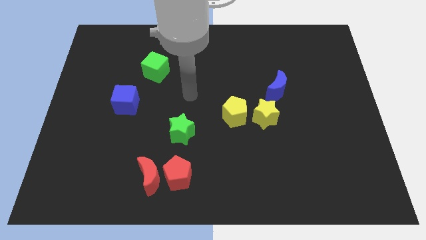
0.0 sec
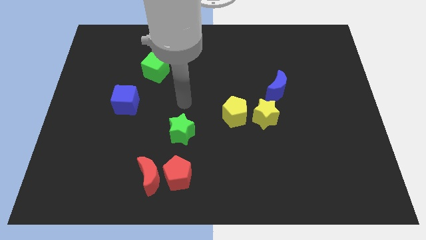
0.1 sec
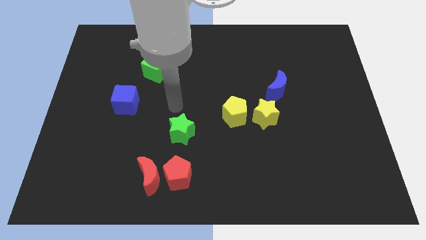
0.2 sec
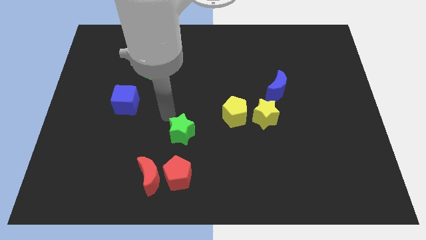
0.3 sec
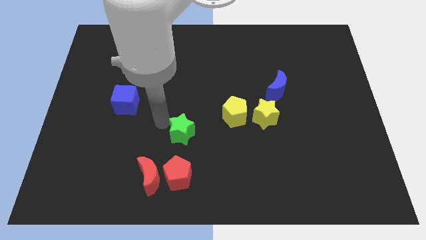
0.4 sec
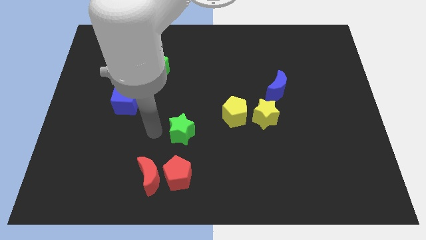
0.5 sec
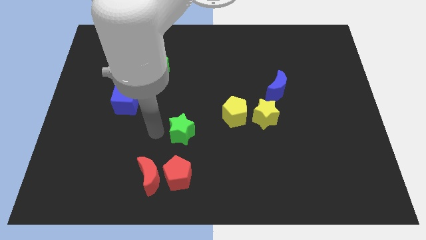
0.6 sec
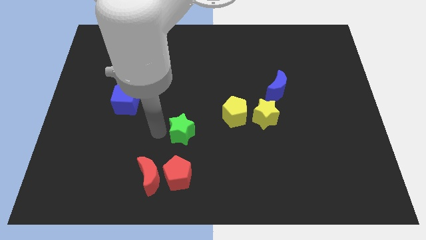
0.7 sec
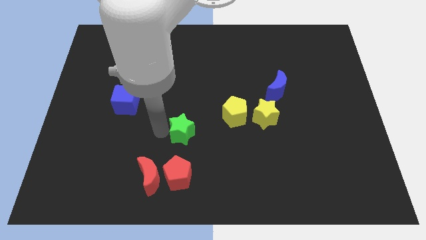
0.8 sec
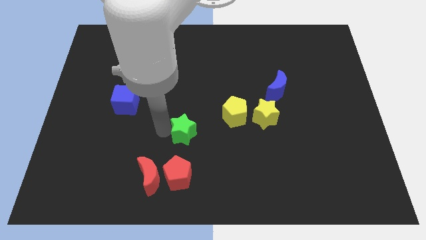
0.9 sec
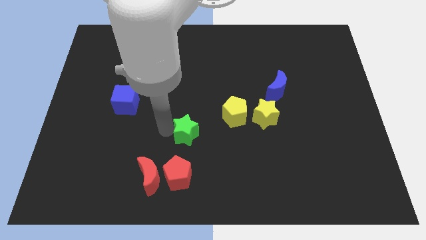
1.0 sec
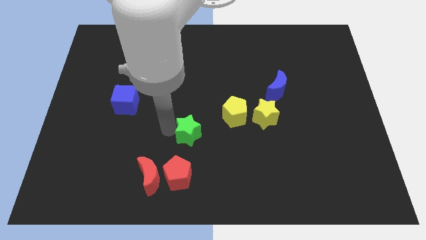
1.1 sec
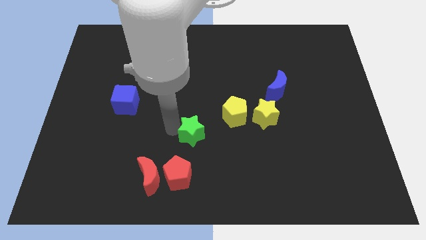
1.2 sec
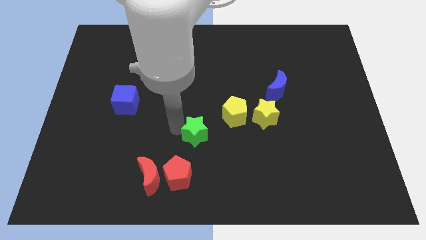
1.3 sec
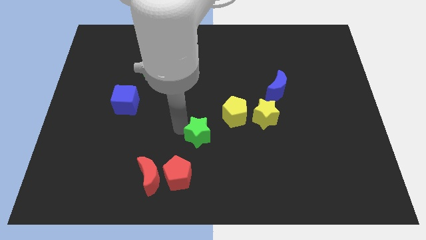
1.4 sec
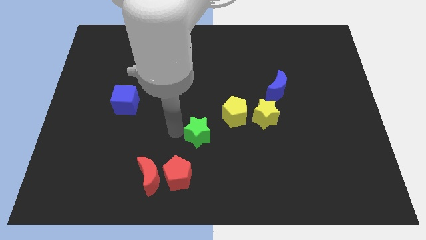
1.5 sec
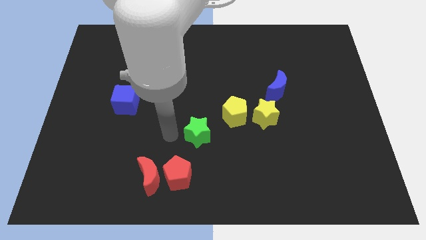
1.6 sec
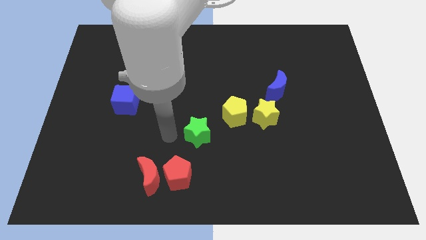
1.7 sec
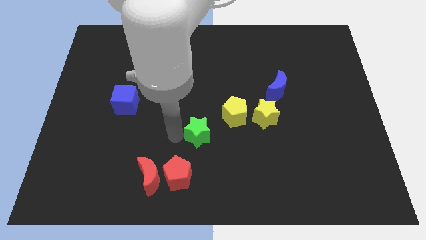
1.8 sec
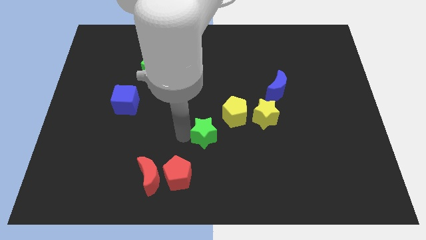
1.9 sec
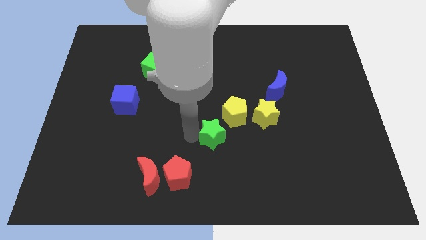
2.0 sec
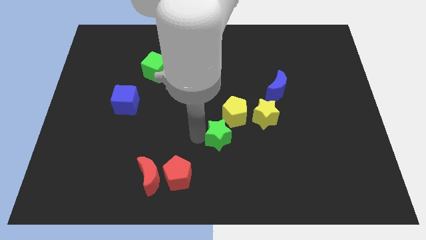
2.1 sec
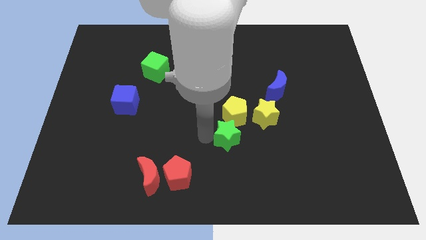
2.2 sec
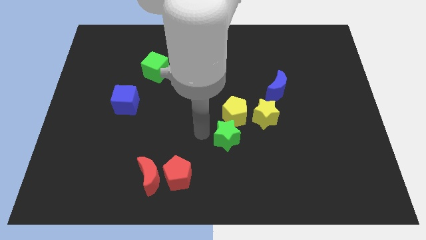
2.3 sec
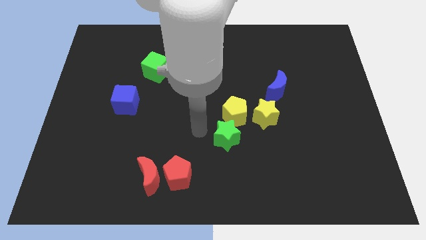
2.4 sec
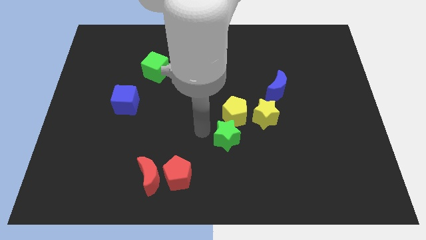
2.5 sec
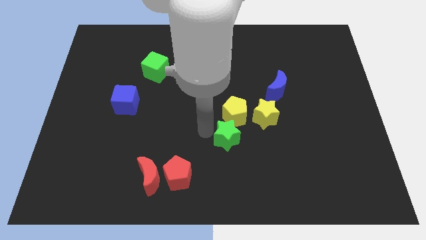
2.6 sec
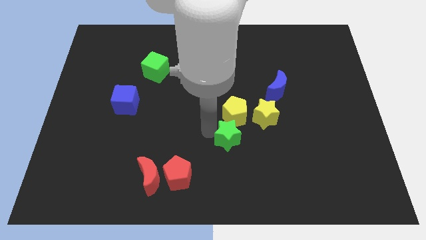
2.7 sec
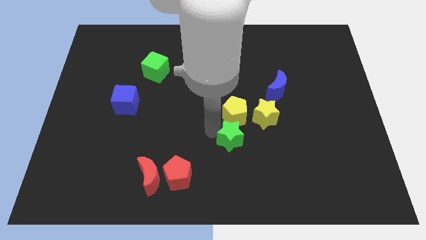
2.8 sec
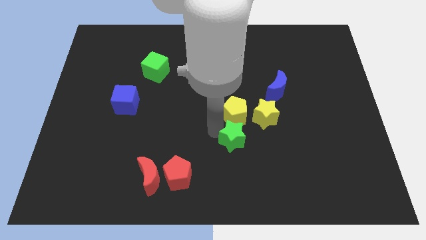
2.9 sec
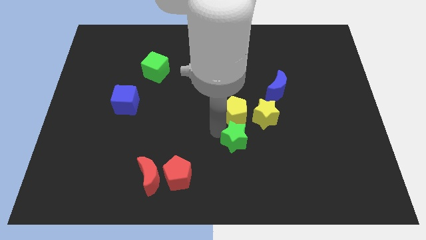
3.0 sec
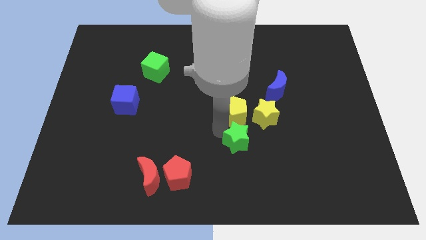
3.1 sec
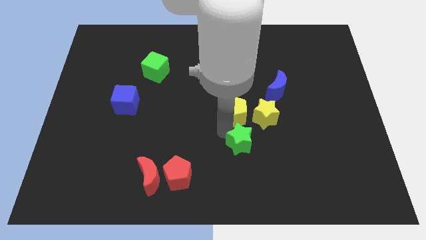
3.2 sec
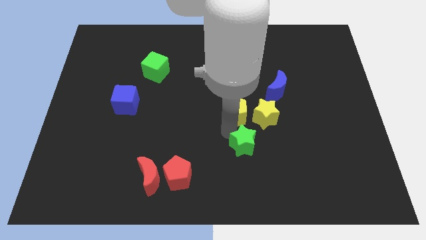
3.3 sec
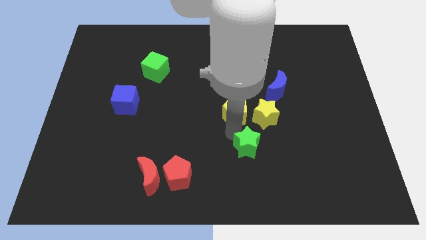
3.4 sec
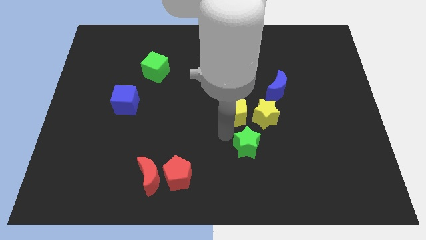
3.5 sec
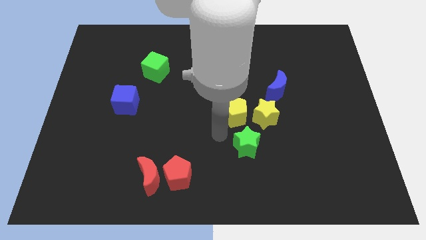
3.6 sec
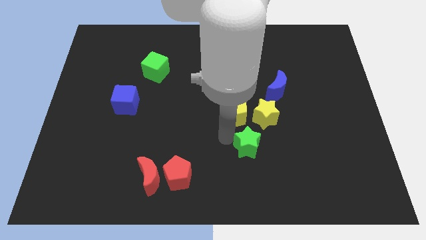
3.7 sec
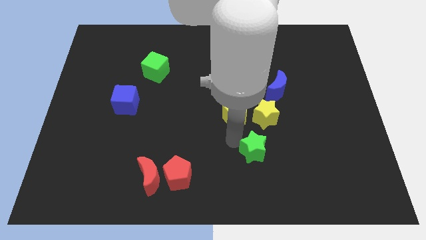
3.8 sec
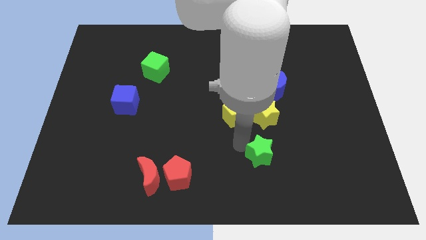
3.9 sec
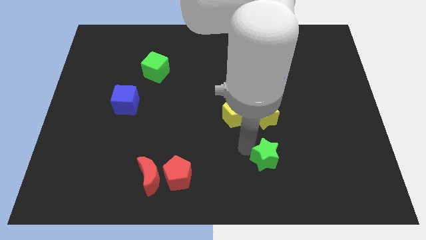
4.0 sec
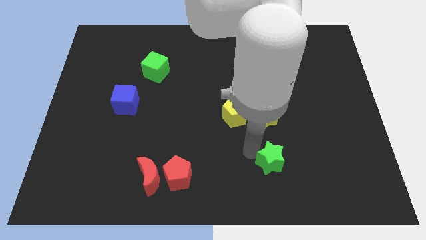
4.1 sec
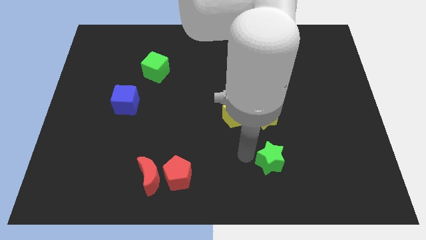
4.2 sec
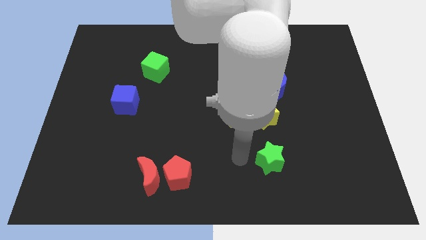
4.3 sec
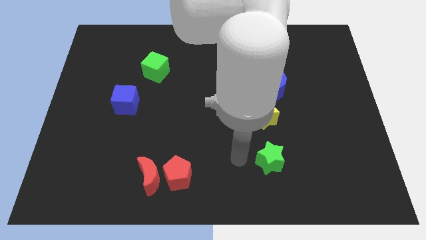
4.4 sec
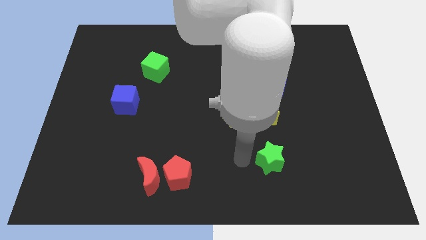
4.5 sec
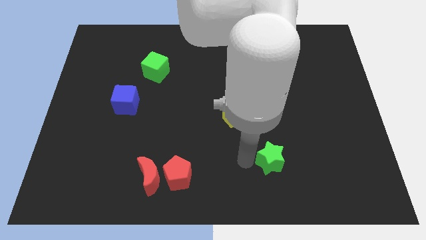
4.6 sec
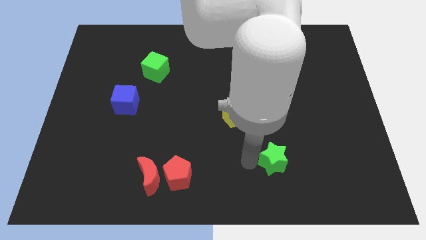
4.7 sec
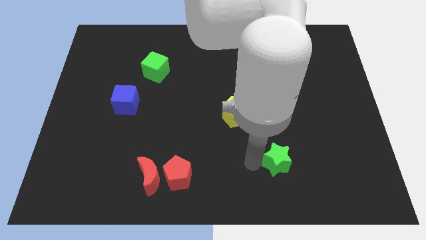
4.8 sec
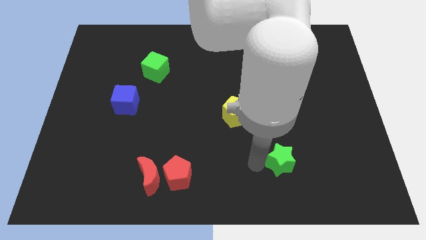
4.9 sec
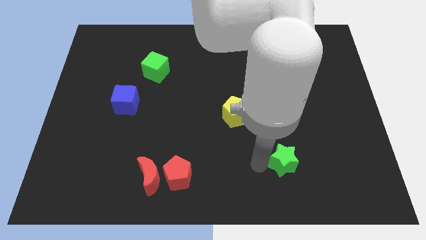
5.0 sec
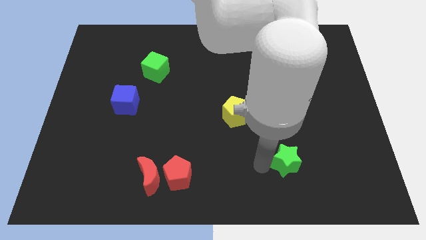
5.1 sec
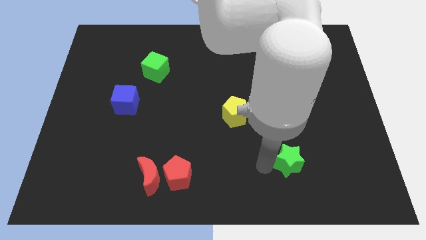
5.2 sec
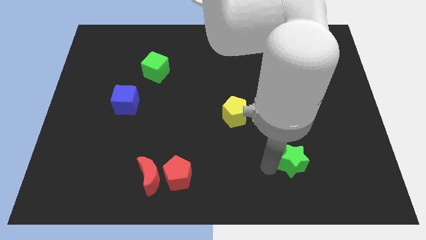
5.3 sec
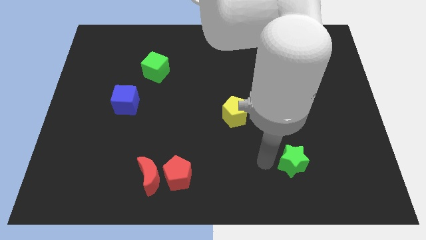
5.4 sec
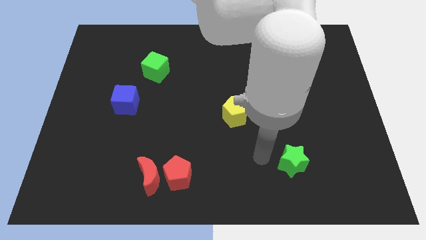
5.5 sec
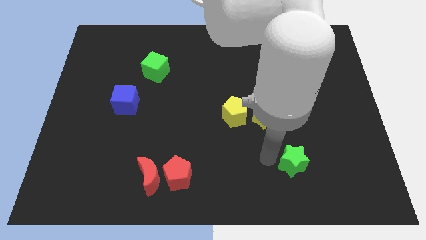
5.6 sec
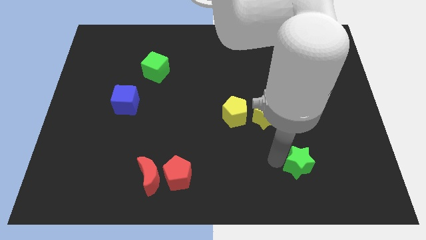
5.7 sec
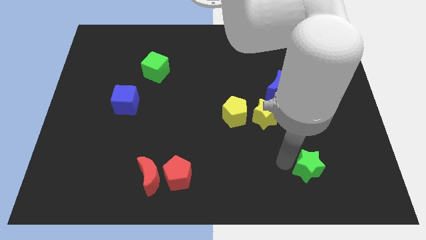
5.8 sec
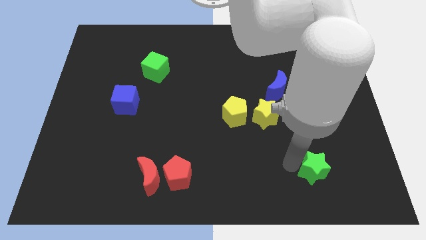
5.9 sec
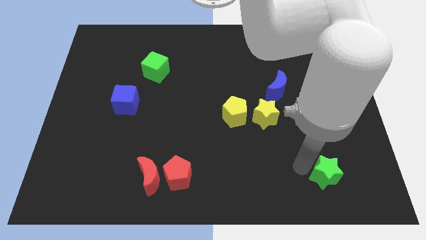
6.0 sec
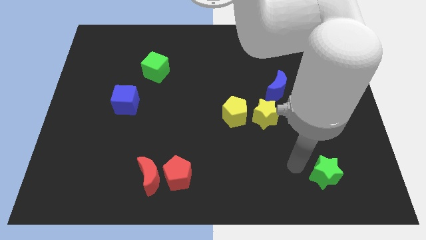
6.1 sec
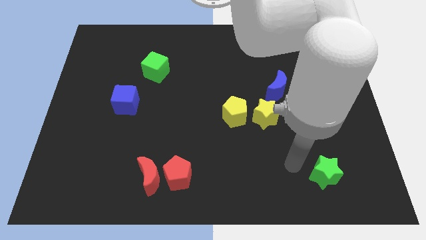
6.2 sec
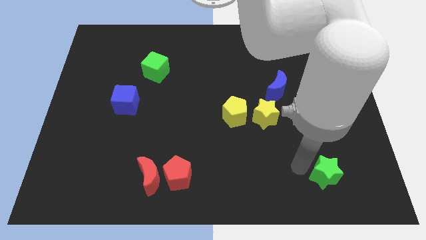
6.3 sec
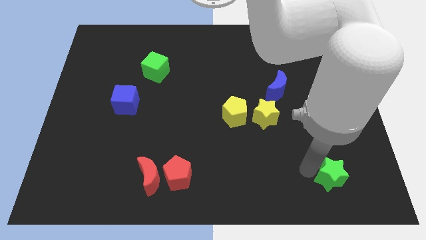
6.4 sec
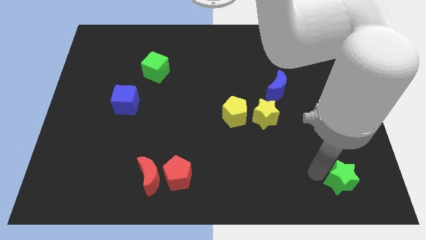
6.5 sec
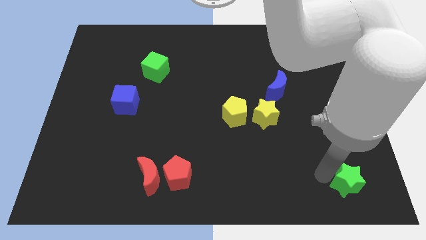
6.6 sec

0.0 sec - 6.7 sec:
move the green star to the bottom right
